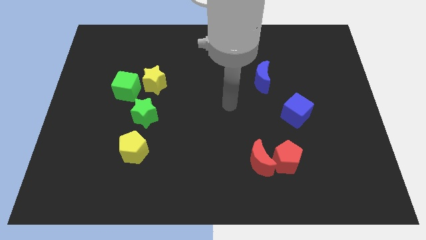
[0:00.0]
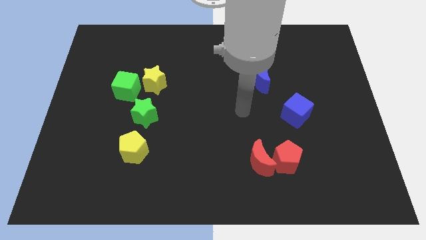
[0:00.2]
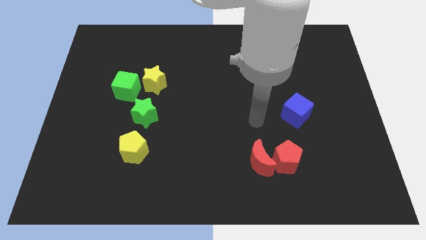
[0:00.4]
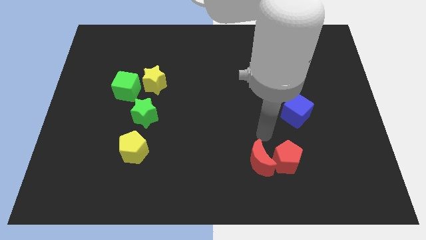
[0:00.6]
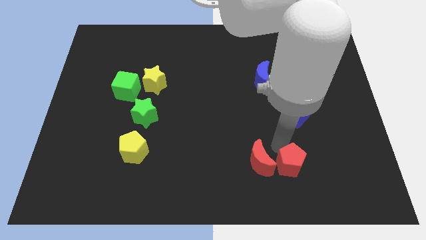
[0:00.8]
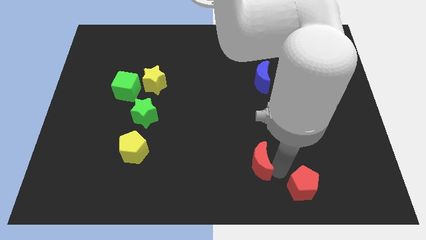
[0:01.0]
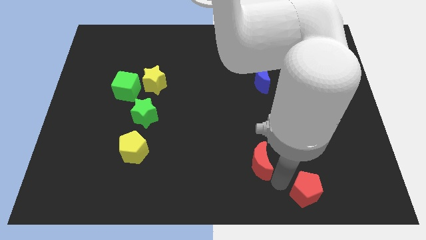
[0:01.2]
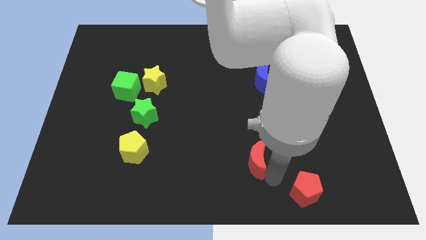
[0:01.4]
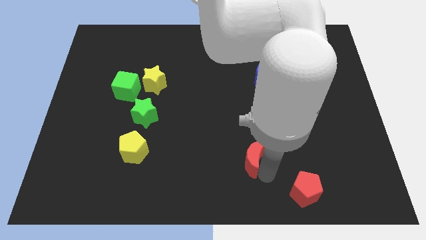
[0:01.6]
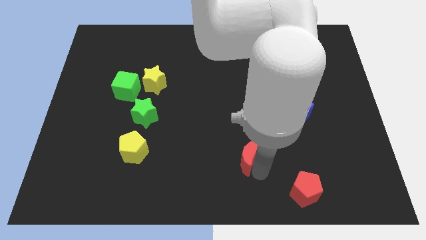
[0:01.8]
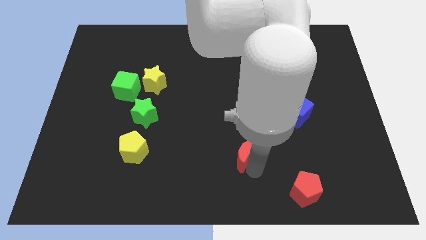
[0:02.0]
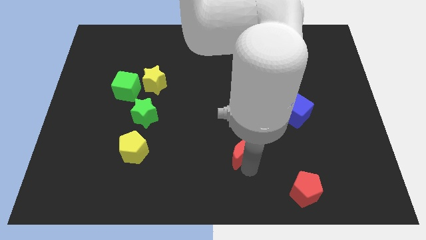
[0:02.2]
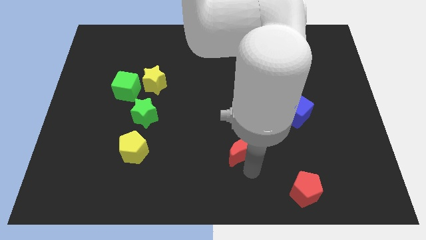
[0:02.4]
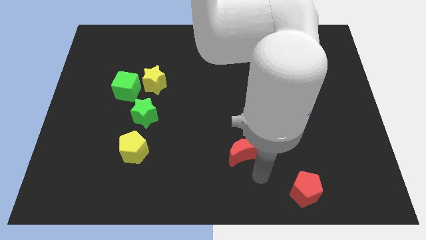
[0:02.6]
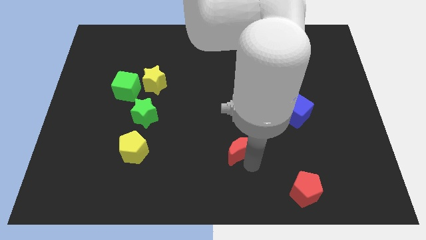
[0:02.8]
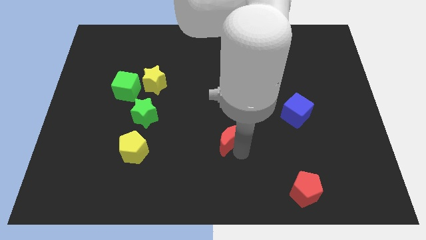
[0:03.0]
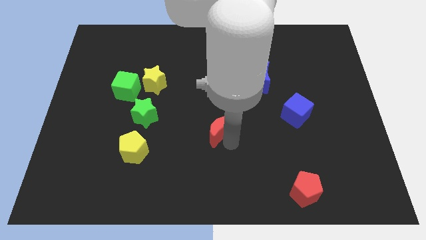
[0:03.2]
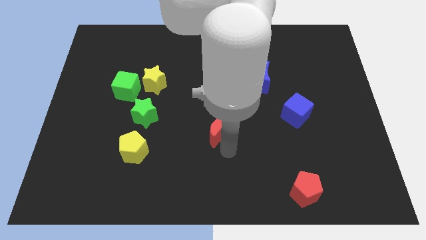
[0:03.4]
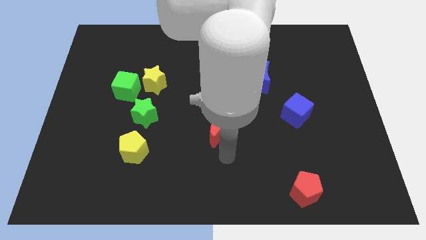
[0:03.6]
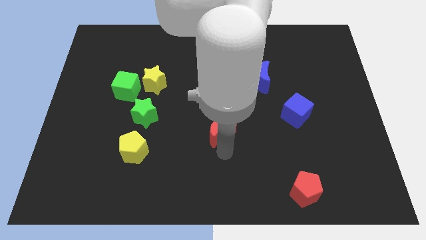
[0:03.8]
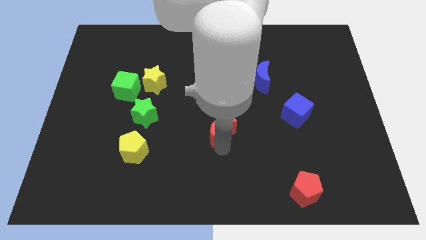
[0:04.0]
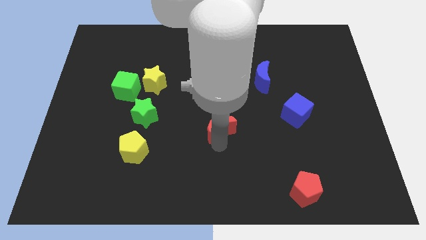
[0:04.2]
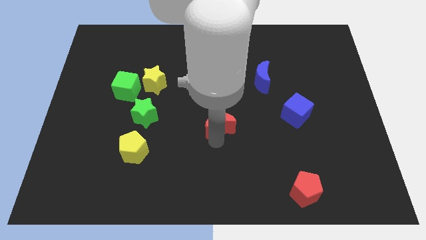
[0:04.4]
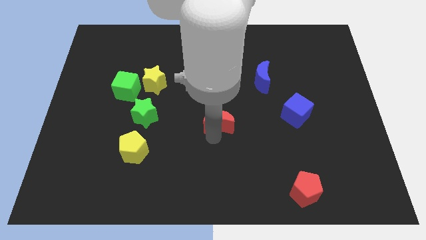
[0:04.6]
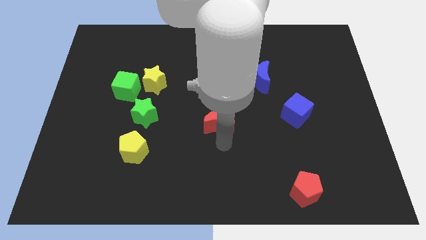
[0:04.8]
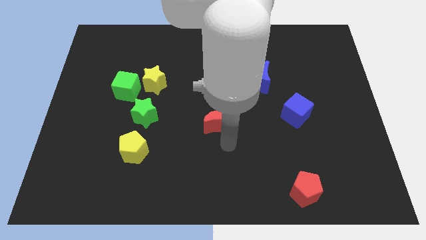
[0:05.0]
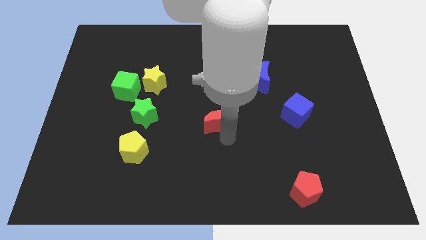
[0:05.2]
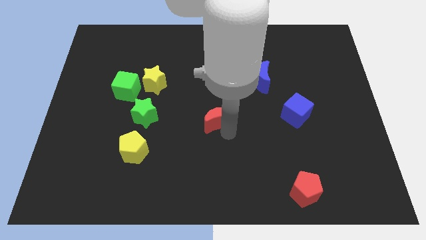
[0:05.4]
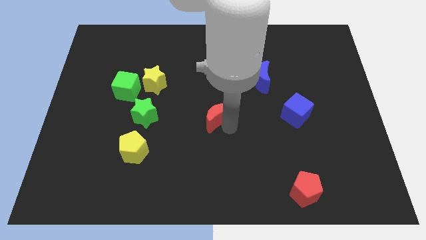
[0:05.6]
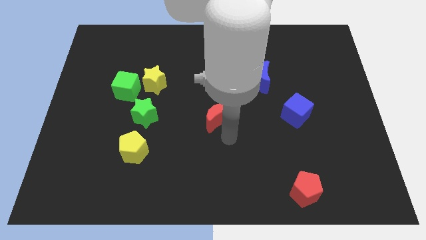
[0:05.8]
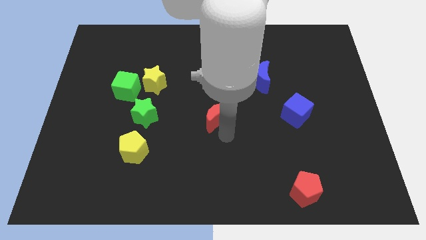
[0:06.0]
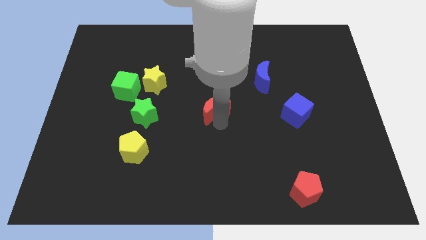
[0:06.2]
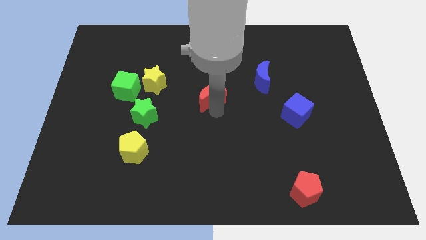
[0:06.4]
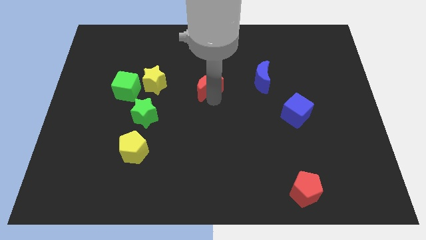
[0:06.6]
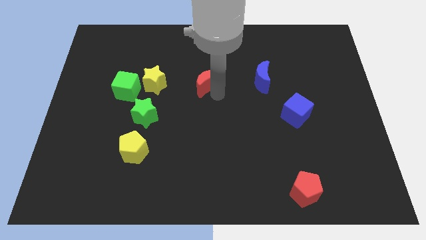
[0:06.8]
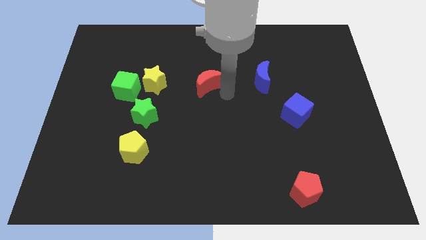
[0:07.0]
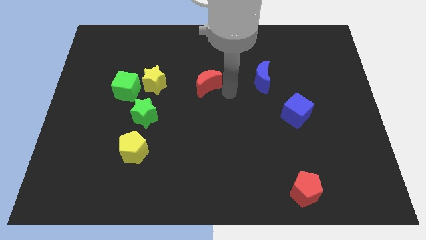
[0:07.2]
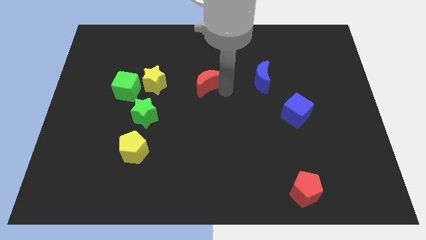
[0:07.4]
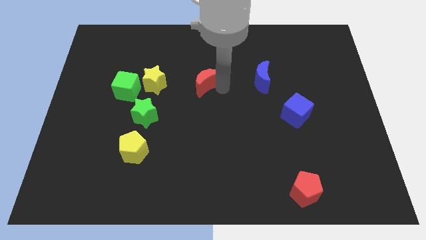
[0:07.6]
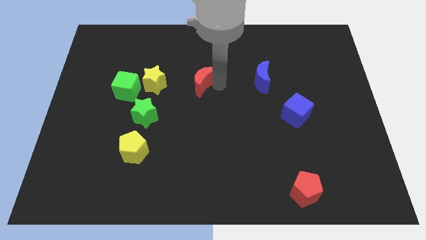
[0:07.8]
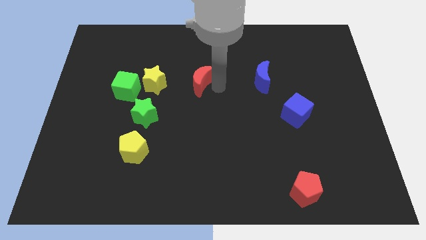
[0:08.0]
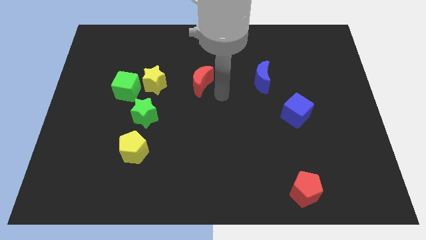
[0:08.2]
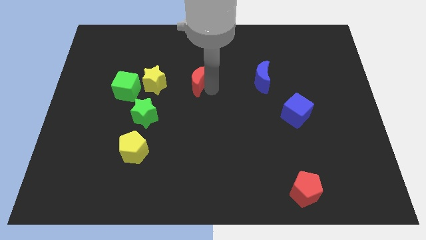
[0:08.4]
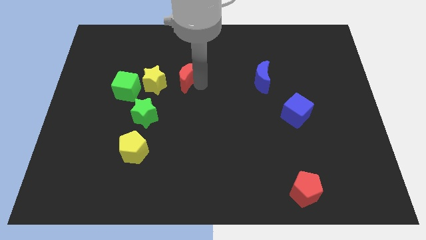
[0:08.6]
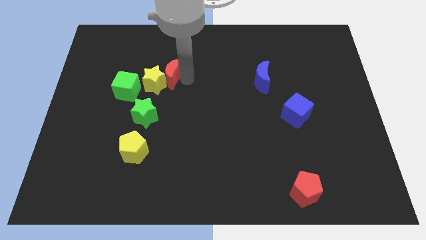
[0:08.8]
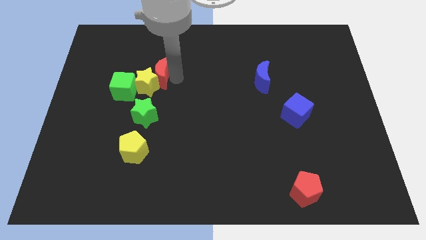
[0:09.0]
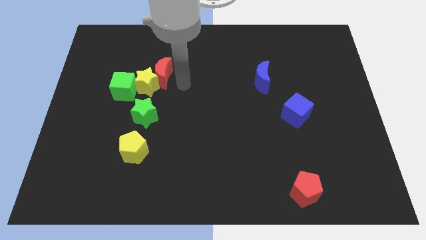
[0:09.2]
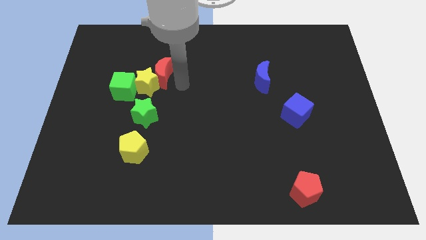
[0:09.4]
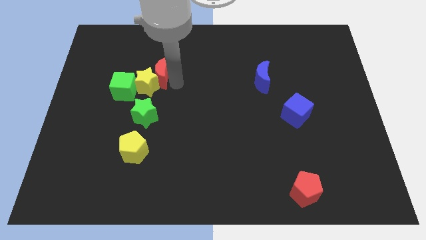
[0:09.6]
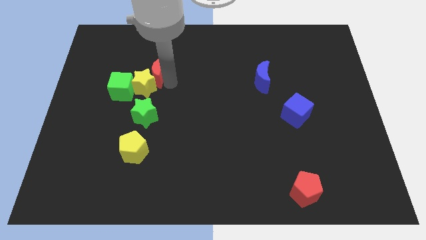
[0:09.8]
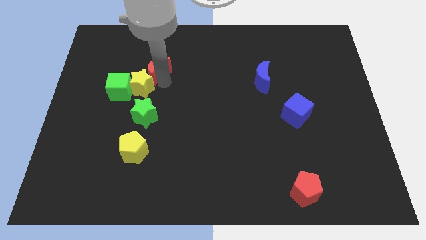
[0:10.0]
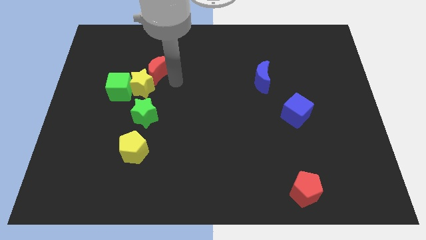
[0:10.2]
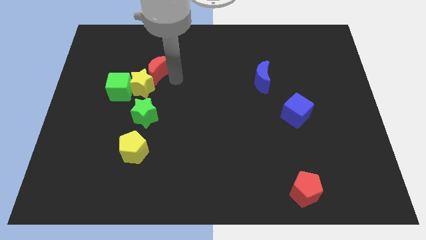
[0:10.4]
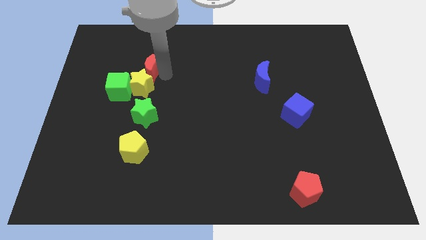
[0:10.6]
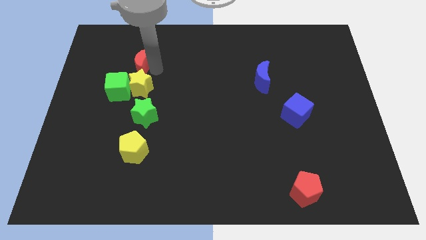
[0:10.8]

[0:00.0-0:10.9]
put the red moon to the top side of the green cube

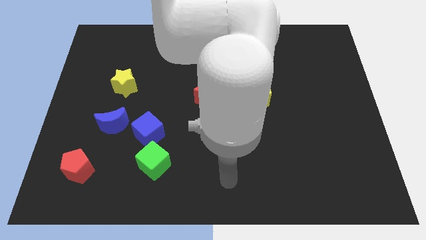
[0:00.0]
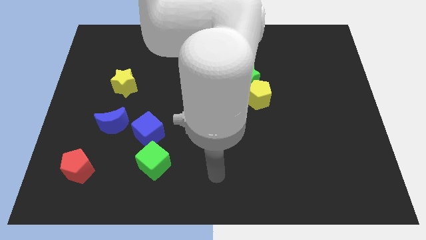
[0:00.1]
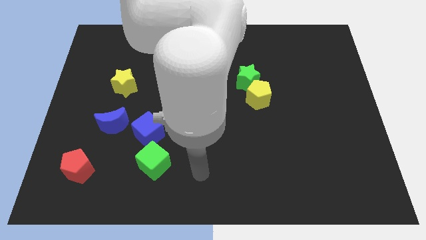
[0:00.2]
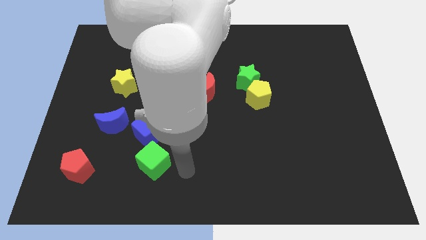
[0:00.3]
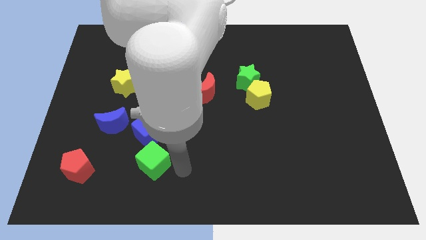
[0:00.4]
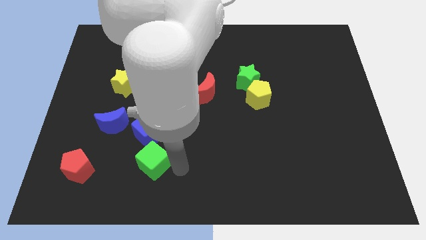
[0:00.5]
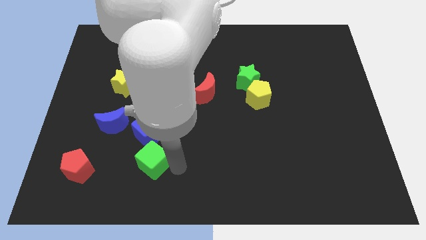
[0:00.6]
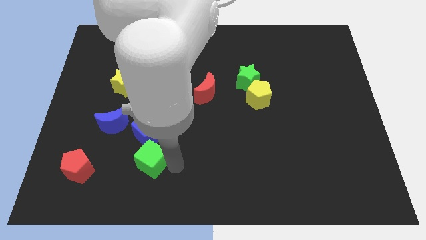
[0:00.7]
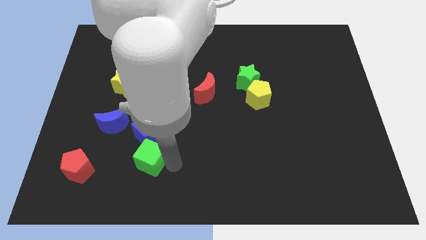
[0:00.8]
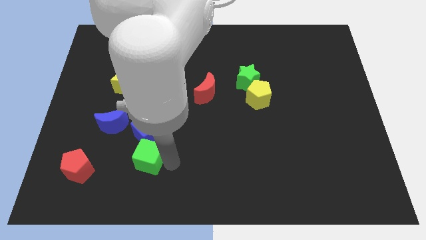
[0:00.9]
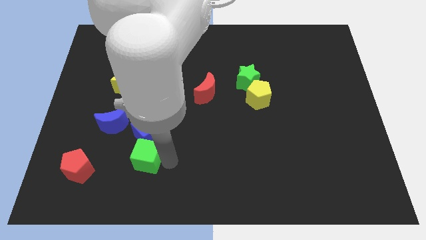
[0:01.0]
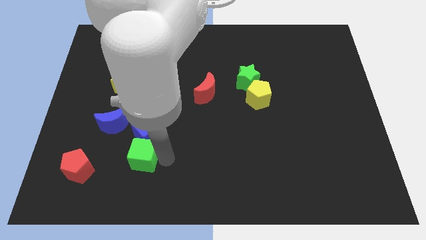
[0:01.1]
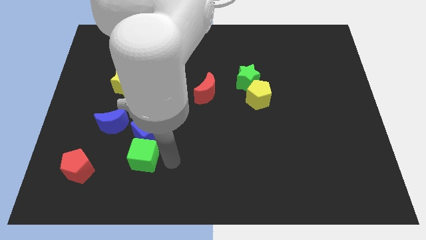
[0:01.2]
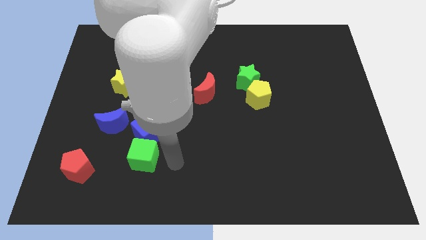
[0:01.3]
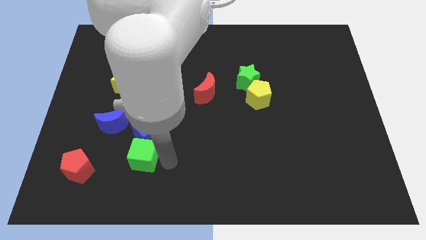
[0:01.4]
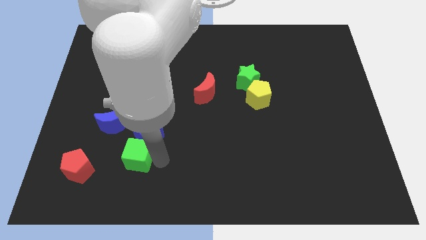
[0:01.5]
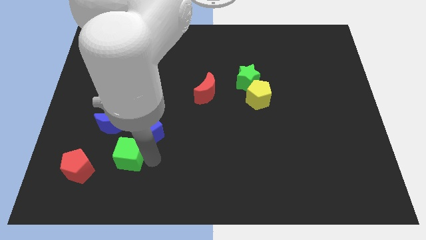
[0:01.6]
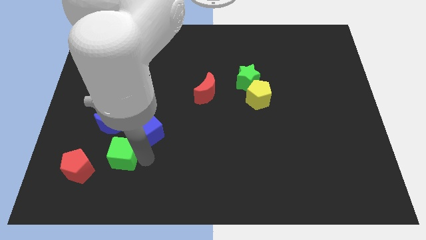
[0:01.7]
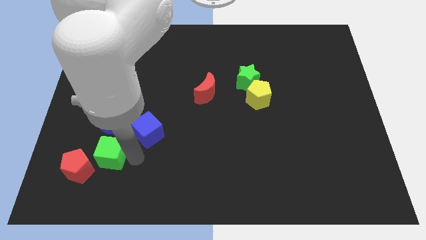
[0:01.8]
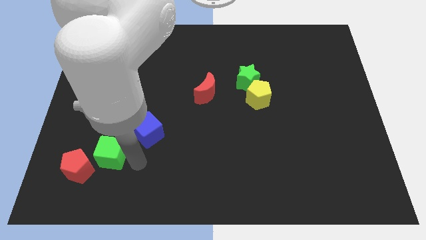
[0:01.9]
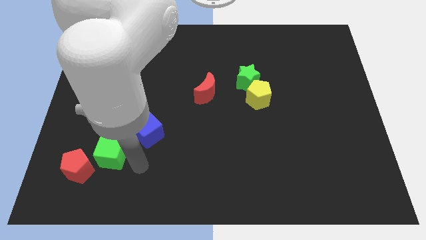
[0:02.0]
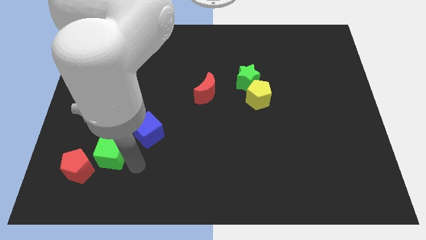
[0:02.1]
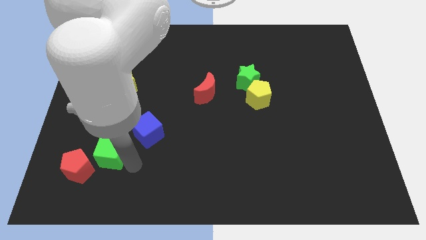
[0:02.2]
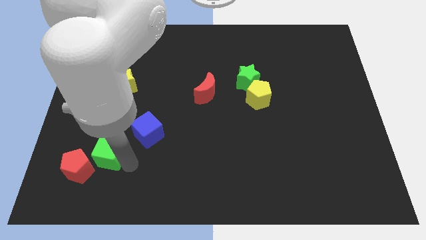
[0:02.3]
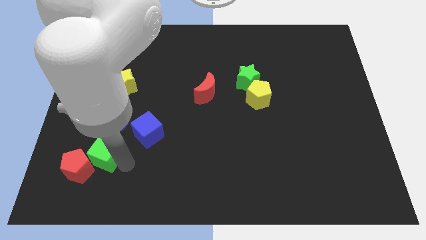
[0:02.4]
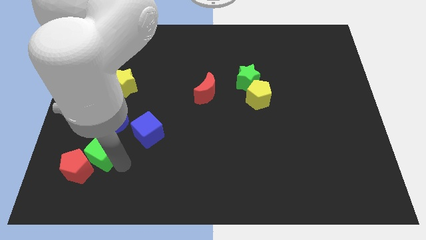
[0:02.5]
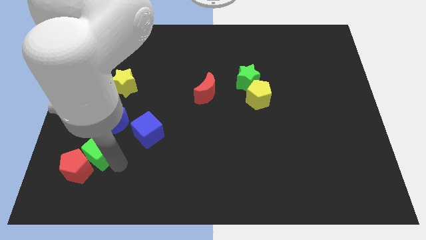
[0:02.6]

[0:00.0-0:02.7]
move the green cube diagonally down and to the left of the blue moon

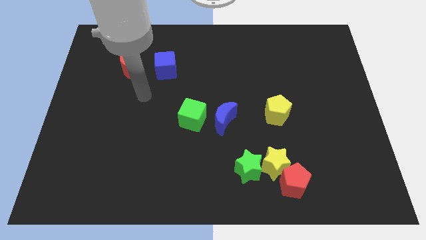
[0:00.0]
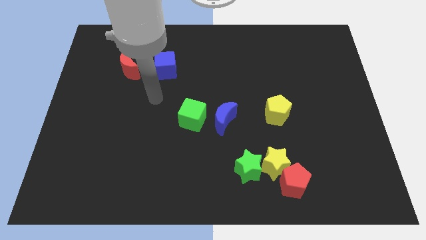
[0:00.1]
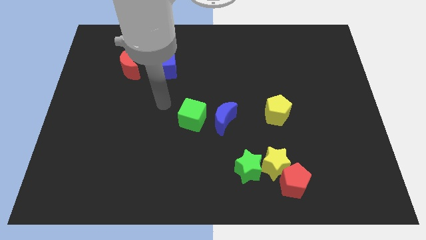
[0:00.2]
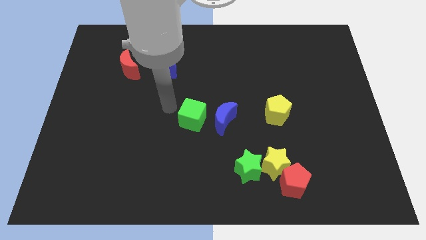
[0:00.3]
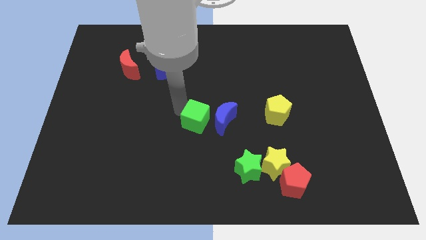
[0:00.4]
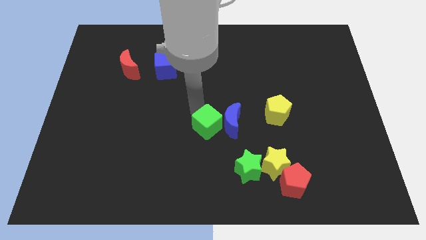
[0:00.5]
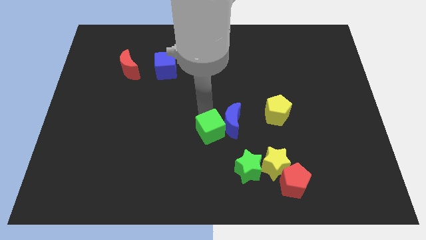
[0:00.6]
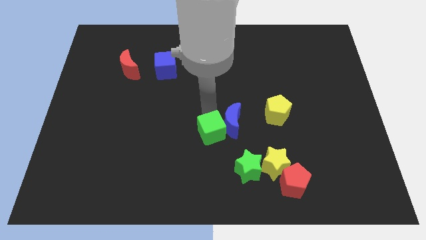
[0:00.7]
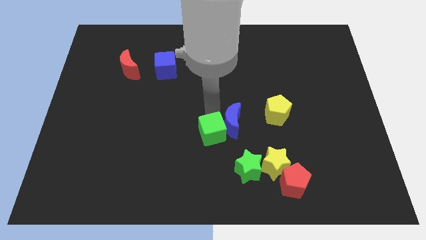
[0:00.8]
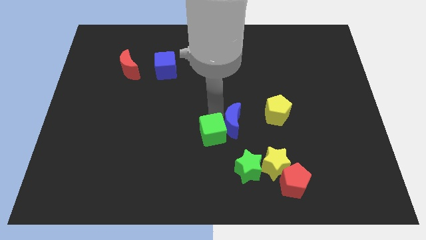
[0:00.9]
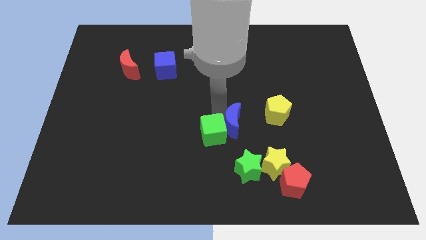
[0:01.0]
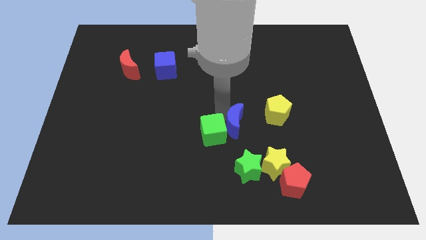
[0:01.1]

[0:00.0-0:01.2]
put the blue moon to the bottom left side of the yellow pentagon
